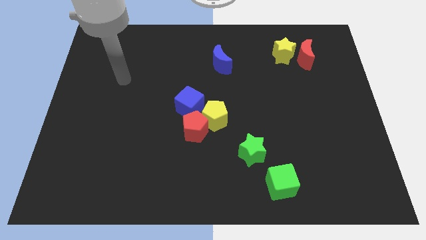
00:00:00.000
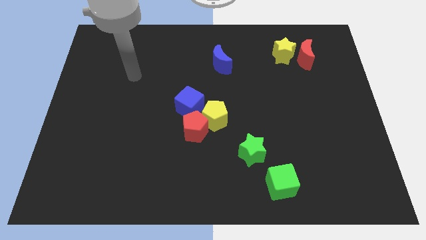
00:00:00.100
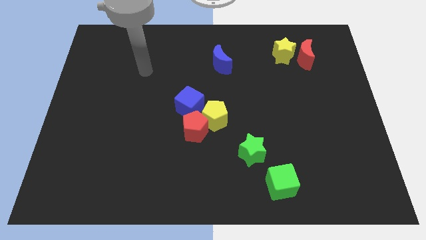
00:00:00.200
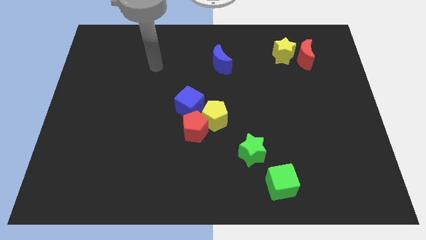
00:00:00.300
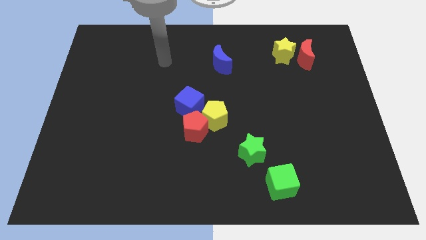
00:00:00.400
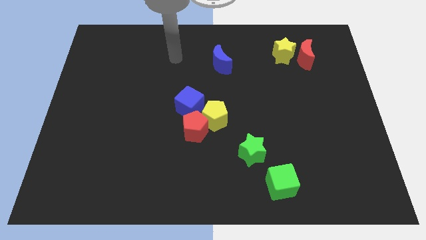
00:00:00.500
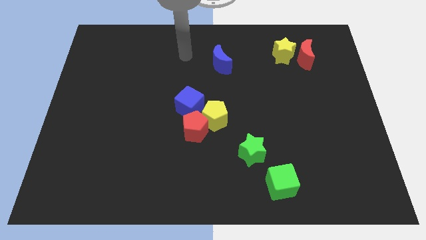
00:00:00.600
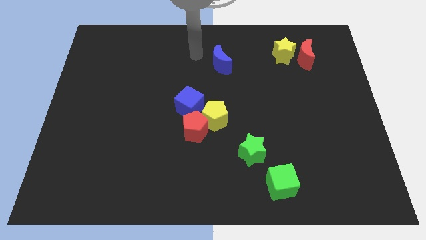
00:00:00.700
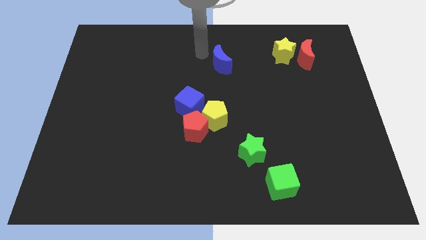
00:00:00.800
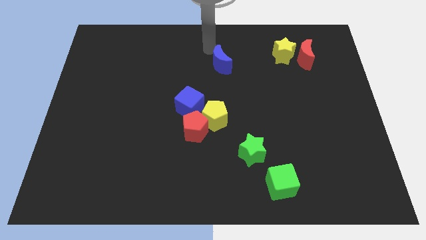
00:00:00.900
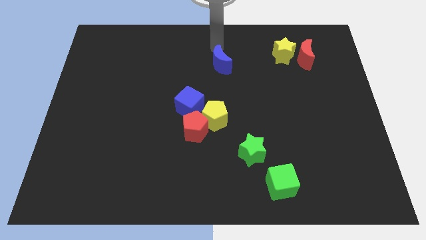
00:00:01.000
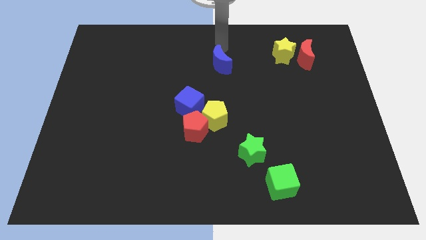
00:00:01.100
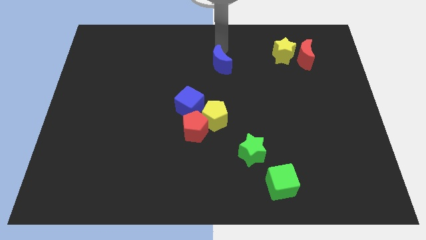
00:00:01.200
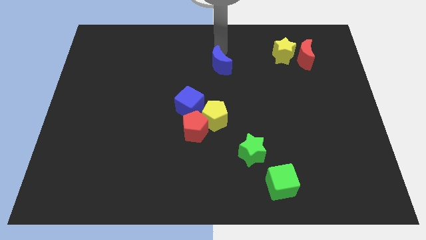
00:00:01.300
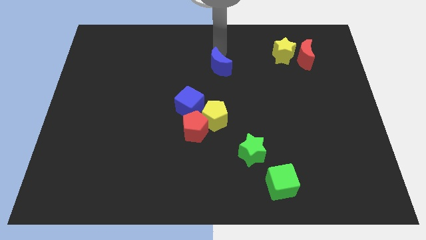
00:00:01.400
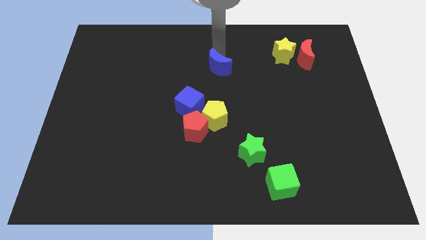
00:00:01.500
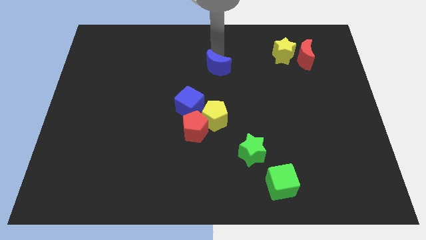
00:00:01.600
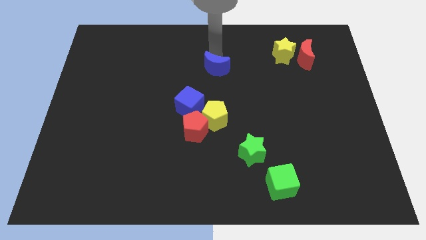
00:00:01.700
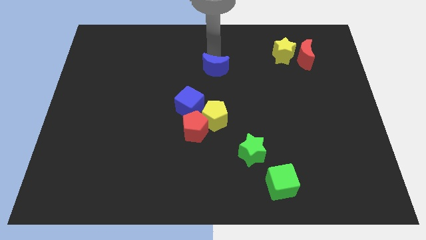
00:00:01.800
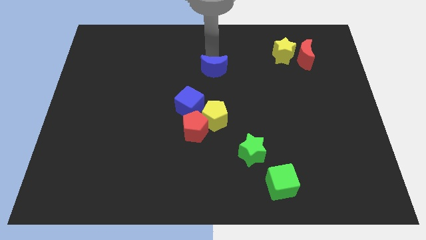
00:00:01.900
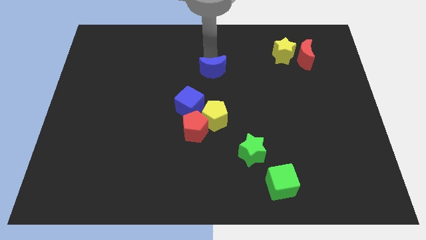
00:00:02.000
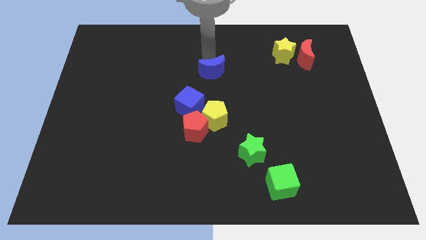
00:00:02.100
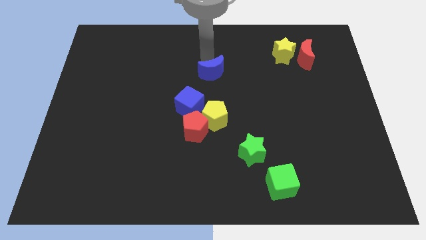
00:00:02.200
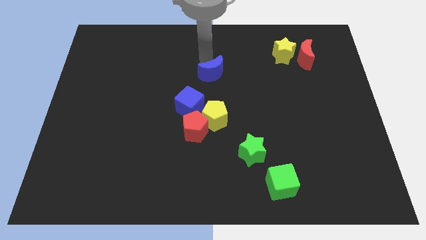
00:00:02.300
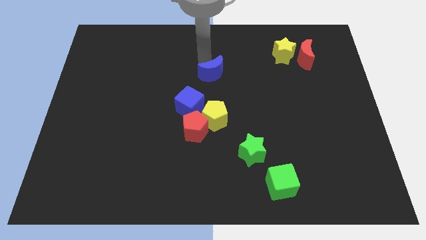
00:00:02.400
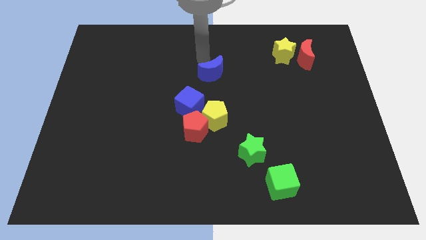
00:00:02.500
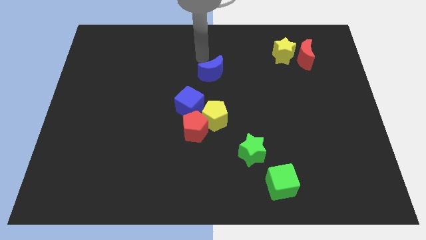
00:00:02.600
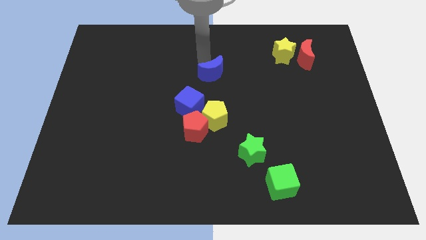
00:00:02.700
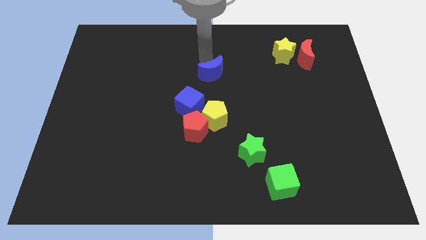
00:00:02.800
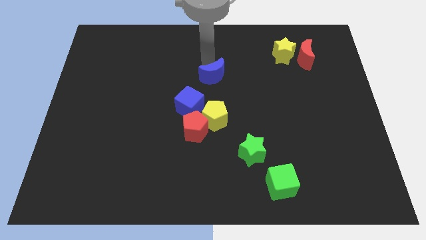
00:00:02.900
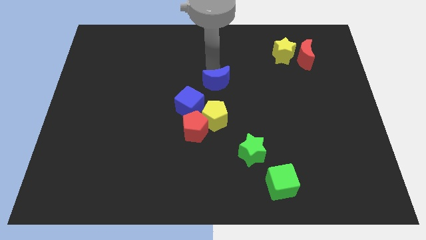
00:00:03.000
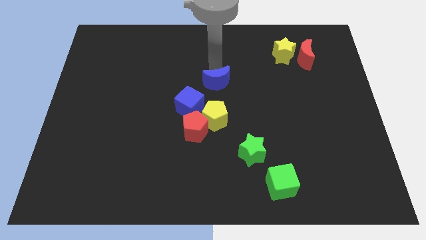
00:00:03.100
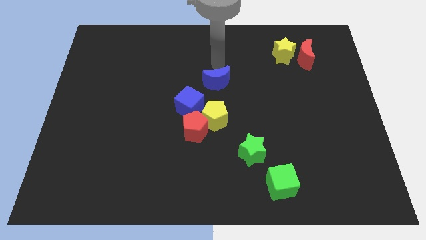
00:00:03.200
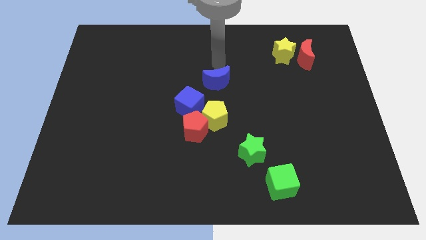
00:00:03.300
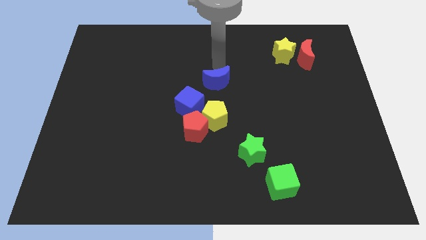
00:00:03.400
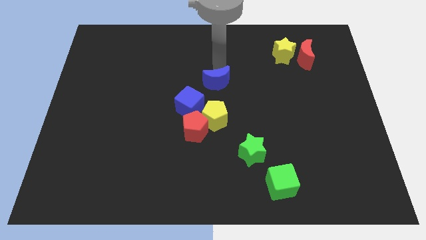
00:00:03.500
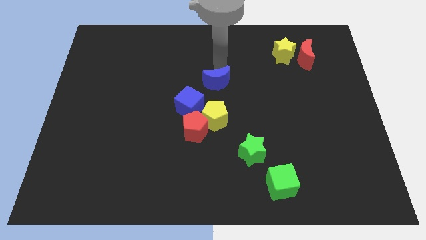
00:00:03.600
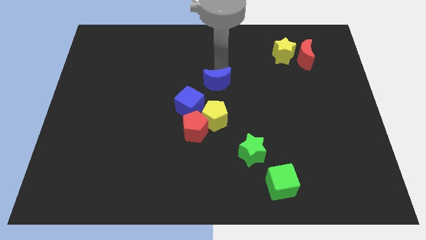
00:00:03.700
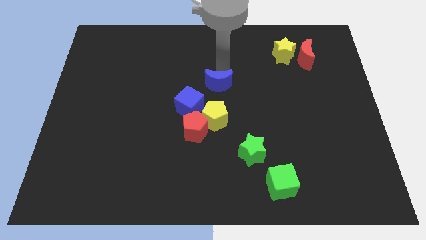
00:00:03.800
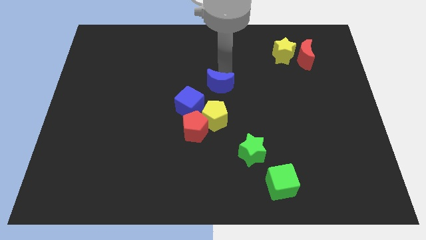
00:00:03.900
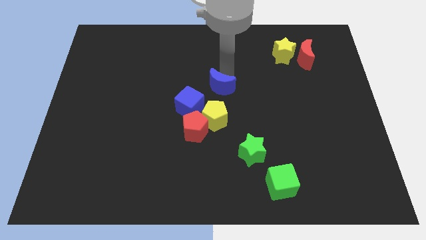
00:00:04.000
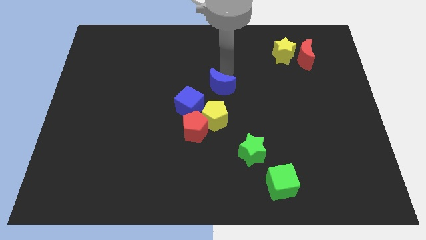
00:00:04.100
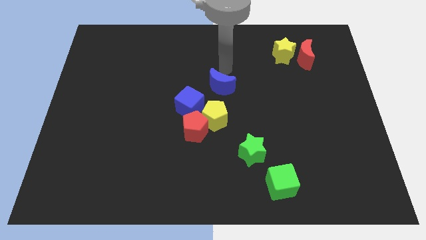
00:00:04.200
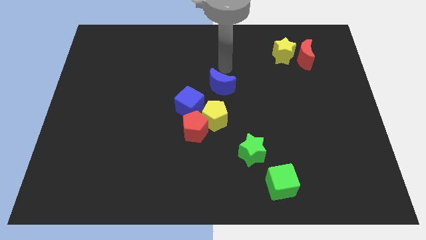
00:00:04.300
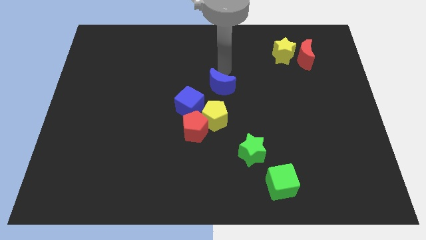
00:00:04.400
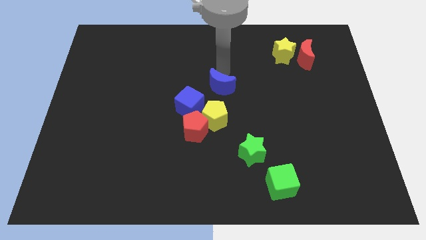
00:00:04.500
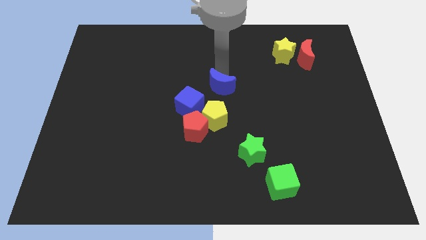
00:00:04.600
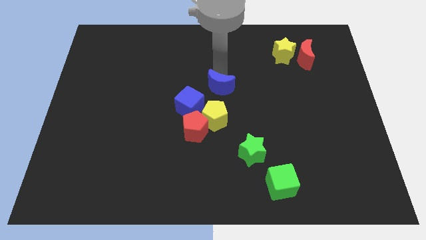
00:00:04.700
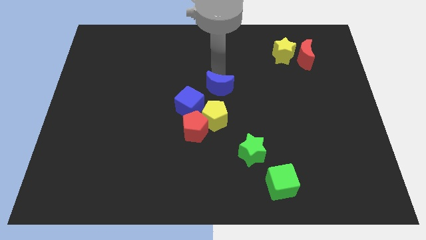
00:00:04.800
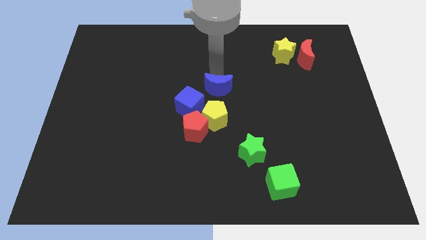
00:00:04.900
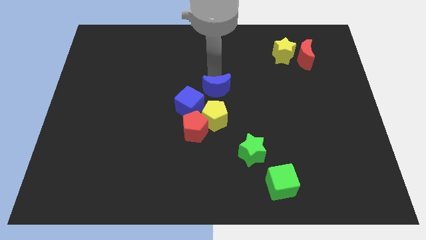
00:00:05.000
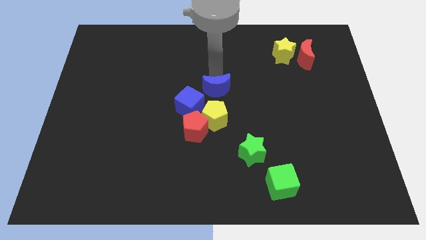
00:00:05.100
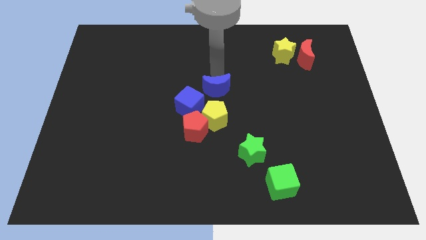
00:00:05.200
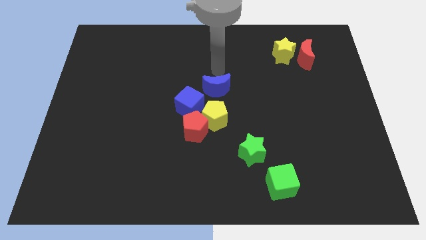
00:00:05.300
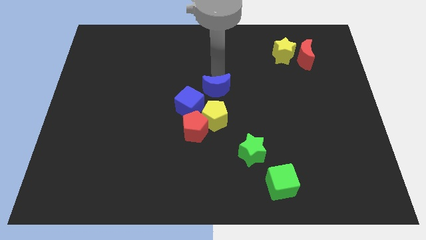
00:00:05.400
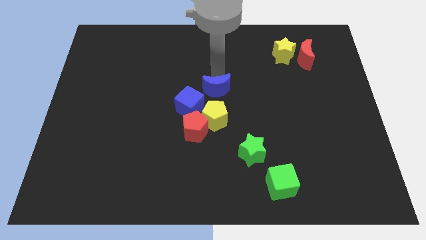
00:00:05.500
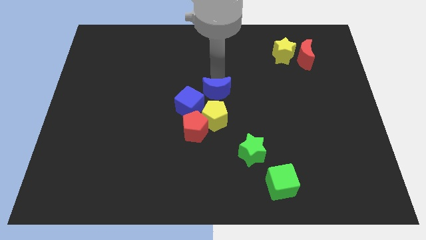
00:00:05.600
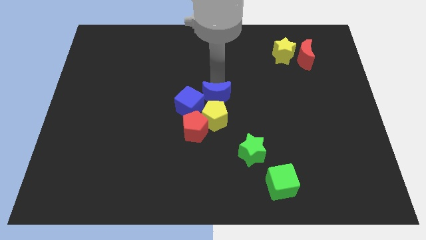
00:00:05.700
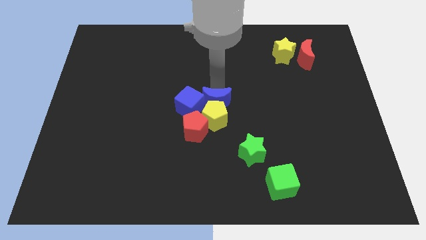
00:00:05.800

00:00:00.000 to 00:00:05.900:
put the blue moon close to the yellow pentagon

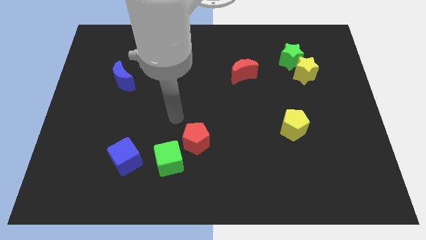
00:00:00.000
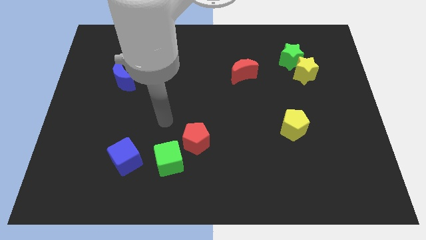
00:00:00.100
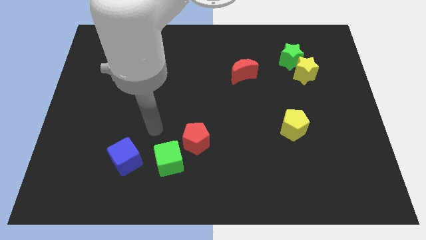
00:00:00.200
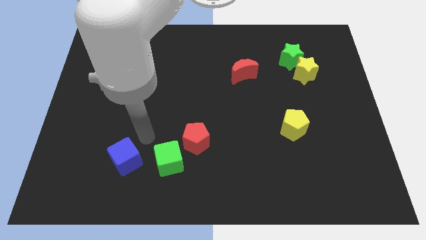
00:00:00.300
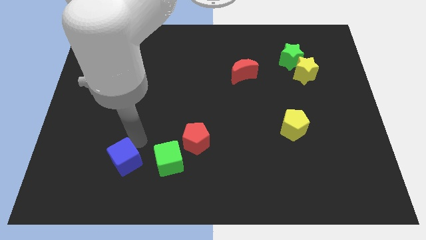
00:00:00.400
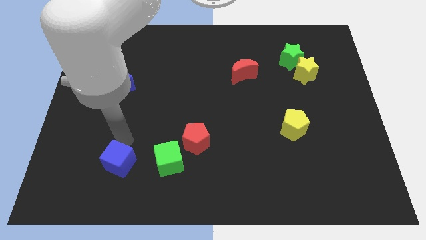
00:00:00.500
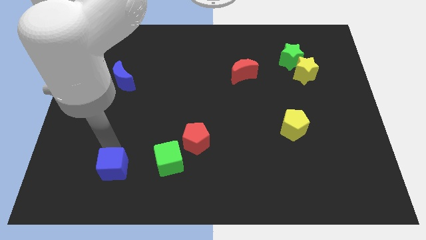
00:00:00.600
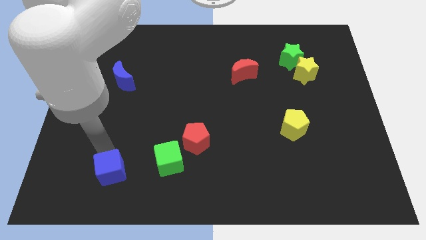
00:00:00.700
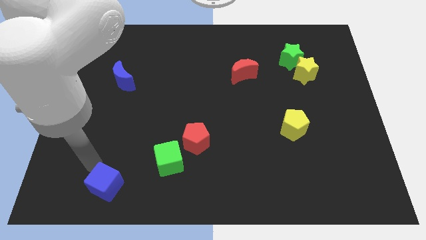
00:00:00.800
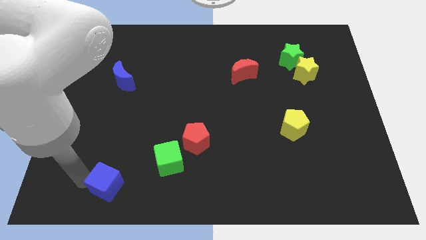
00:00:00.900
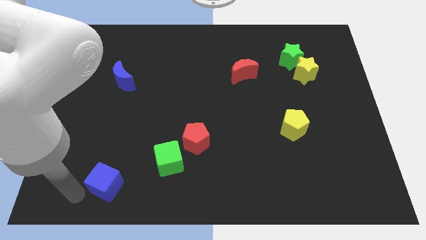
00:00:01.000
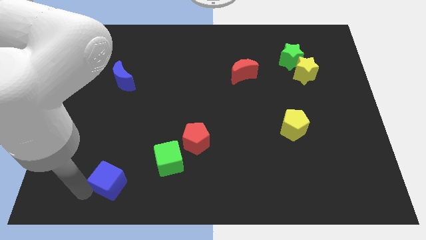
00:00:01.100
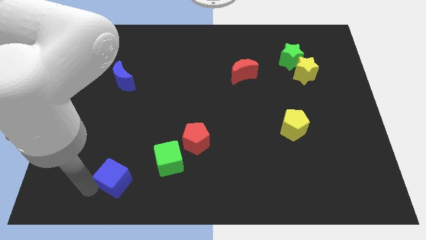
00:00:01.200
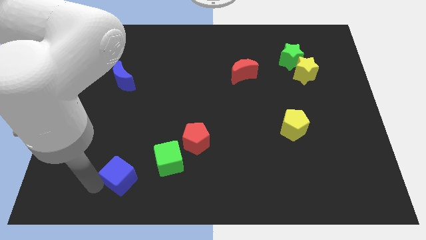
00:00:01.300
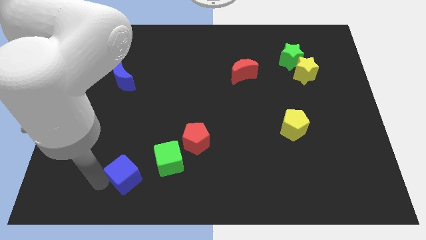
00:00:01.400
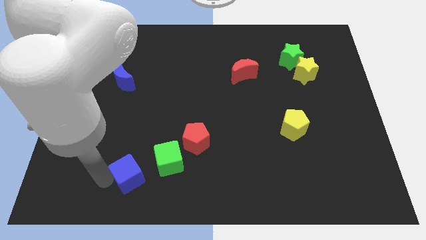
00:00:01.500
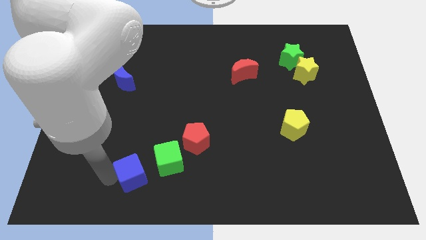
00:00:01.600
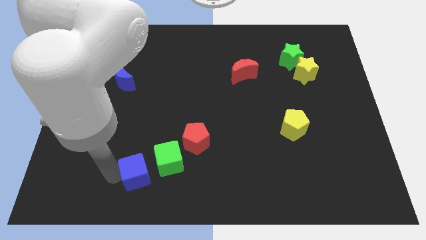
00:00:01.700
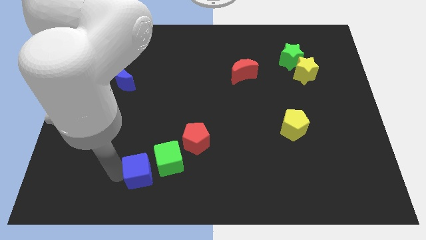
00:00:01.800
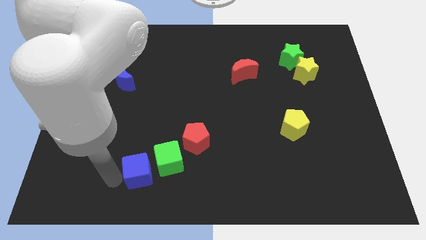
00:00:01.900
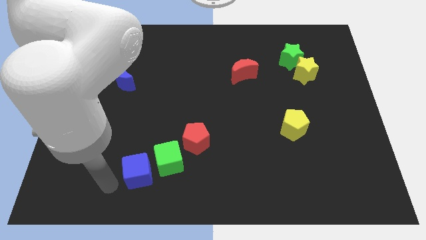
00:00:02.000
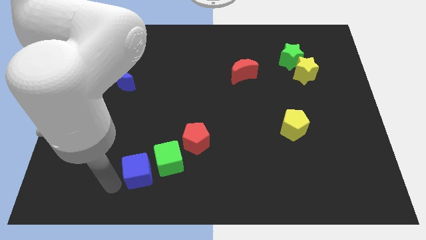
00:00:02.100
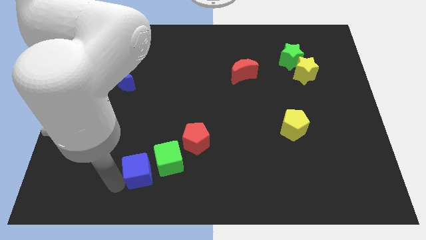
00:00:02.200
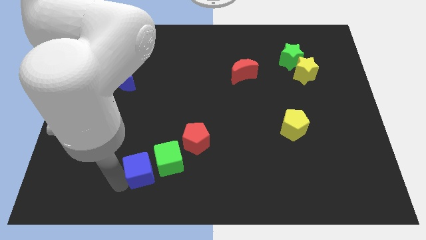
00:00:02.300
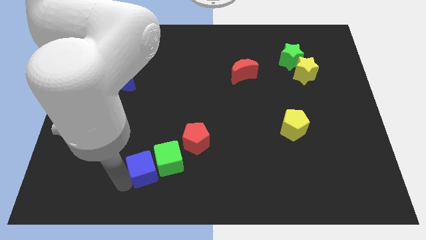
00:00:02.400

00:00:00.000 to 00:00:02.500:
move the blue cube to the green cube
